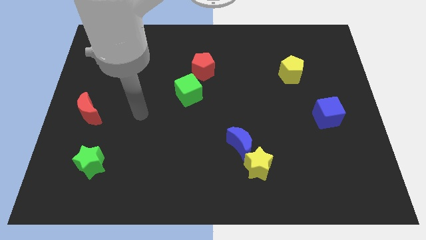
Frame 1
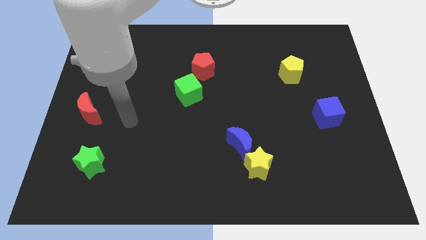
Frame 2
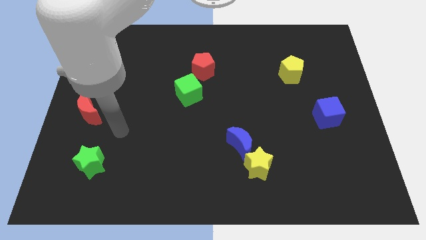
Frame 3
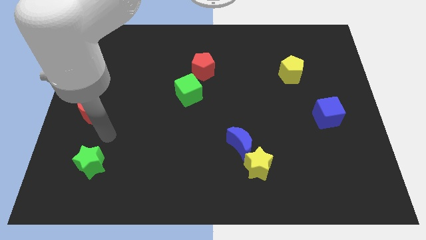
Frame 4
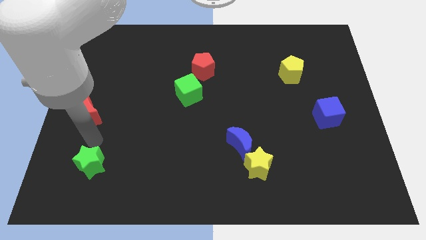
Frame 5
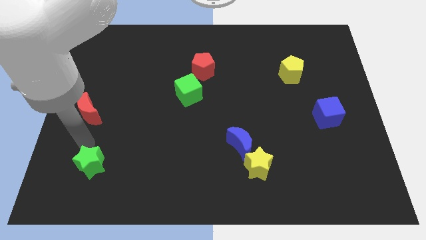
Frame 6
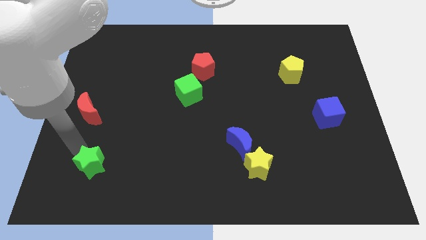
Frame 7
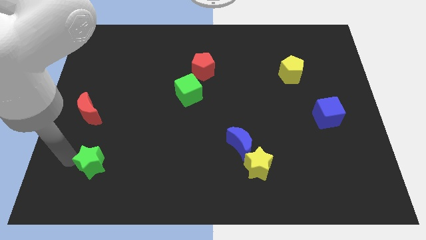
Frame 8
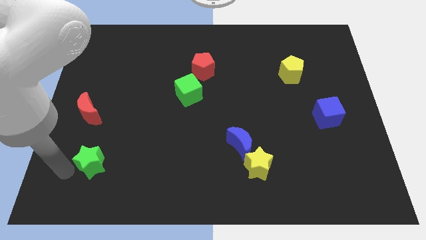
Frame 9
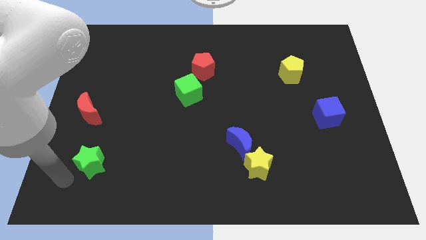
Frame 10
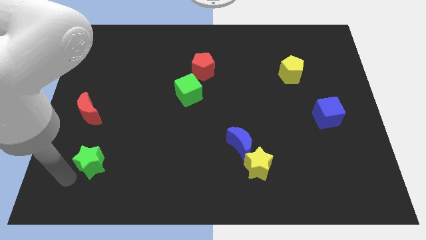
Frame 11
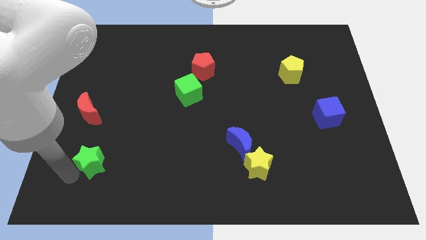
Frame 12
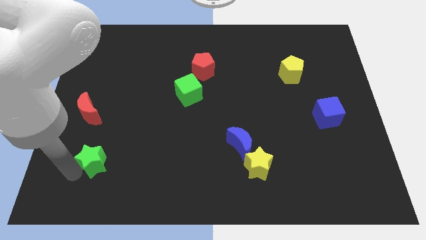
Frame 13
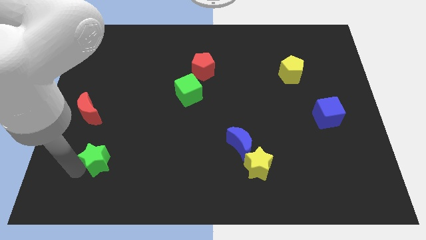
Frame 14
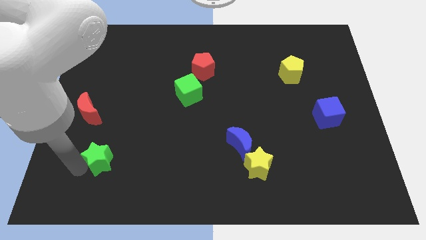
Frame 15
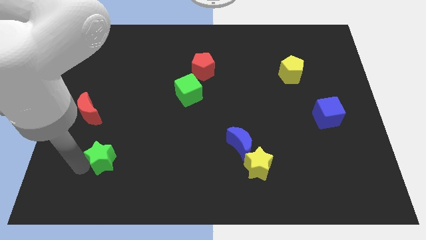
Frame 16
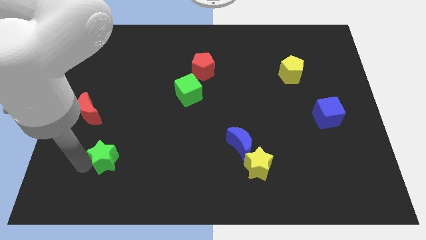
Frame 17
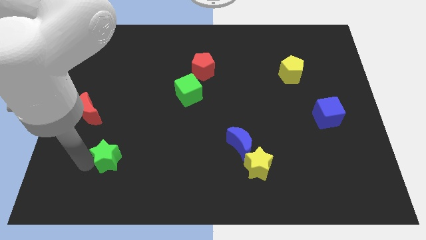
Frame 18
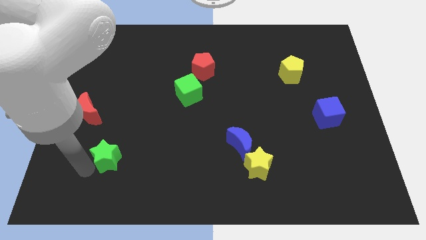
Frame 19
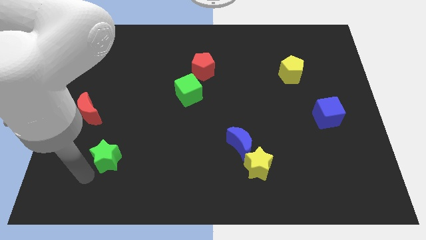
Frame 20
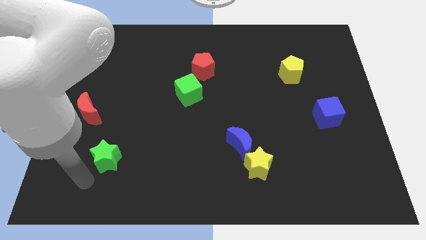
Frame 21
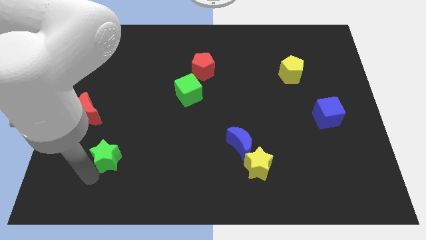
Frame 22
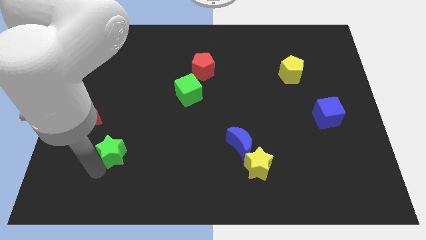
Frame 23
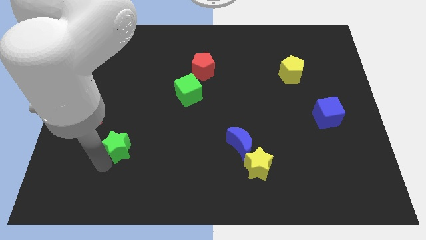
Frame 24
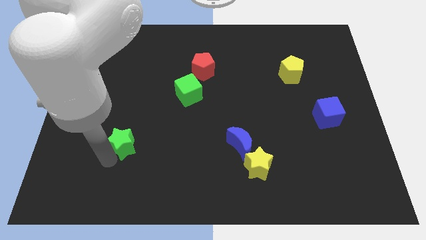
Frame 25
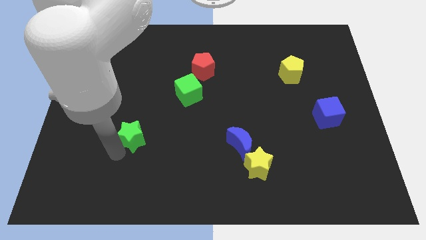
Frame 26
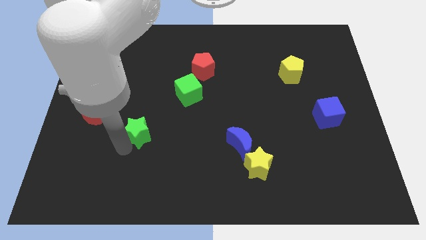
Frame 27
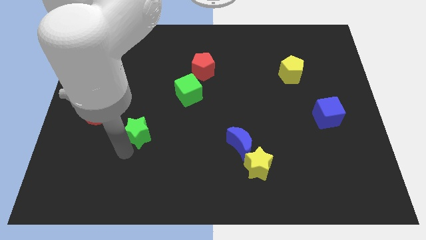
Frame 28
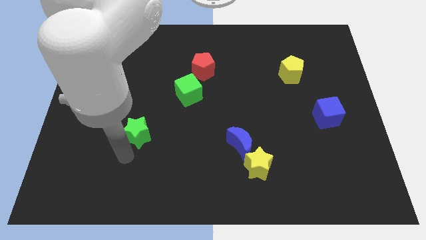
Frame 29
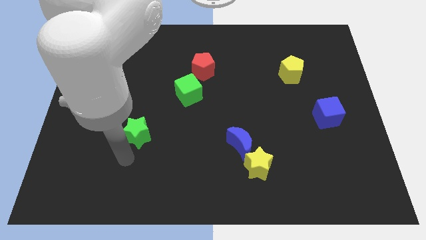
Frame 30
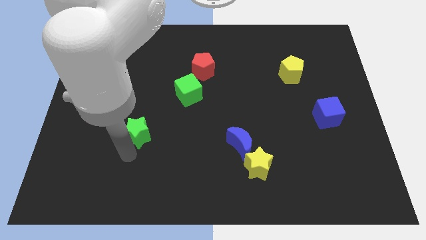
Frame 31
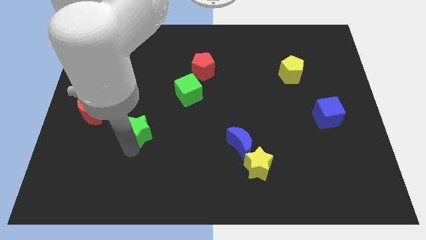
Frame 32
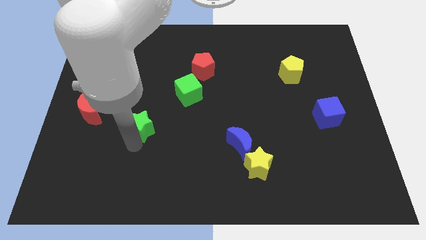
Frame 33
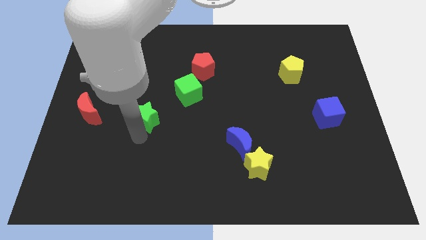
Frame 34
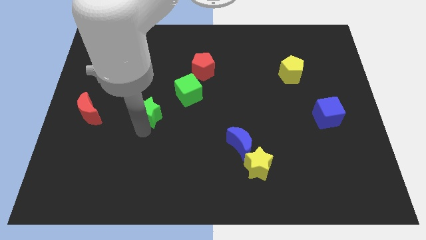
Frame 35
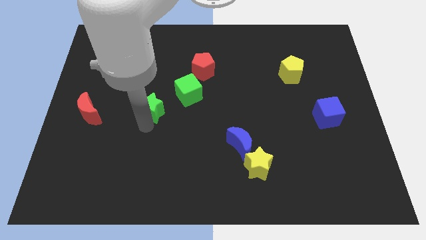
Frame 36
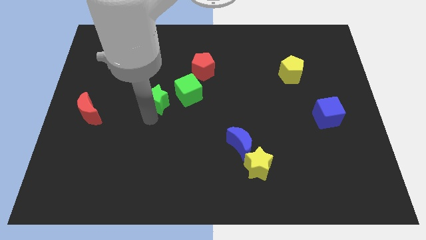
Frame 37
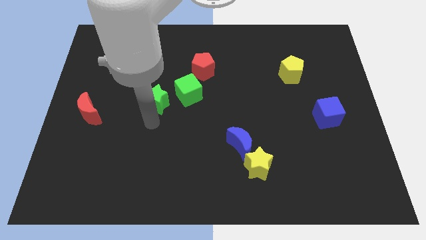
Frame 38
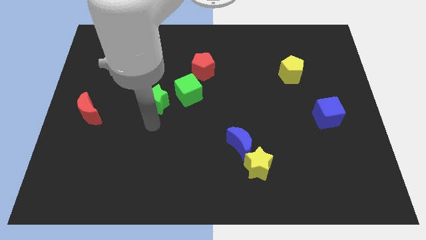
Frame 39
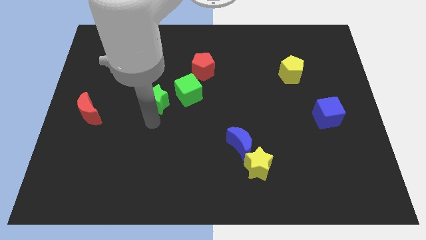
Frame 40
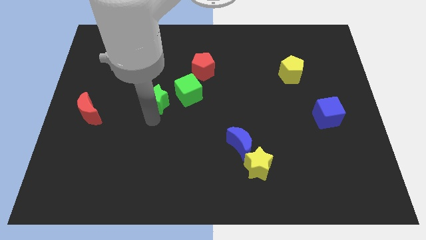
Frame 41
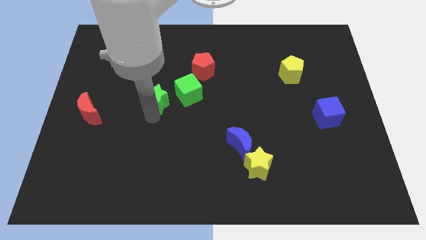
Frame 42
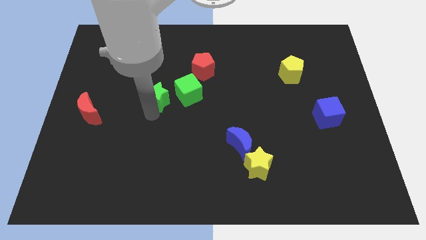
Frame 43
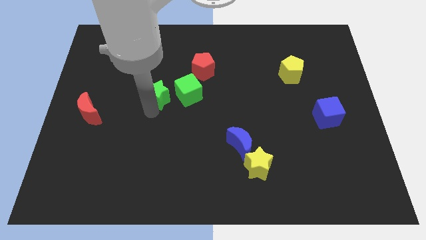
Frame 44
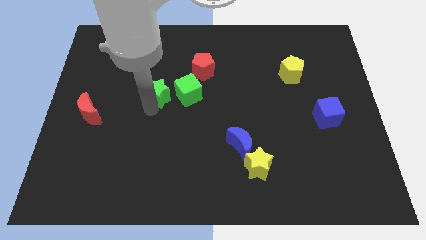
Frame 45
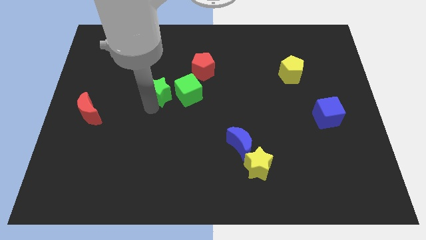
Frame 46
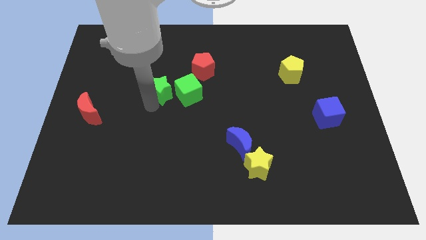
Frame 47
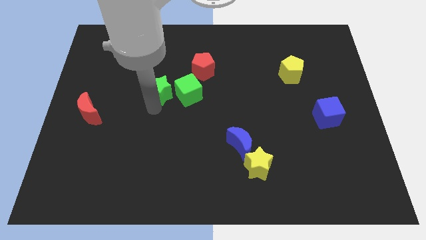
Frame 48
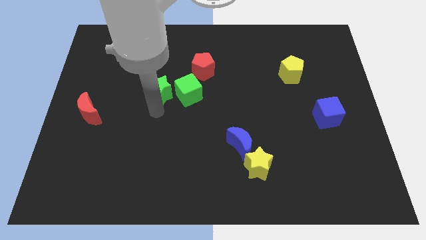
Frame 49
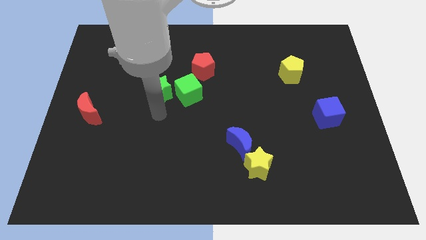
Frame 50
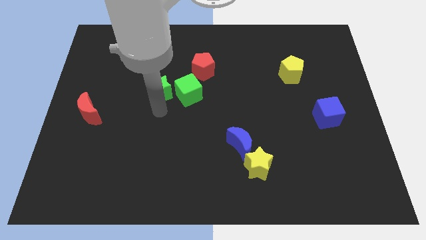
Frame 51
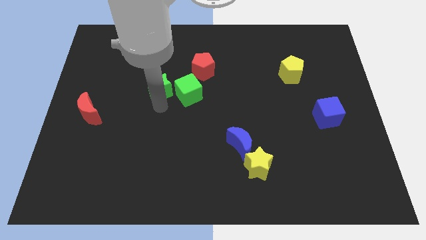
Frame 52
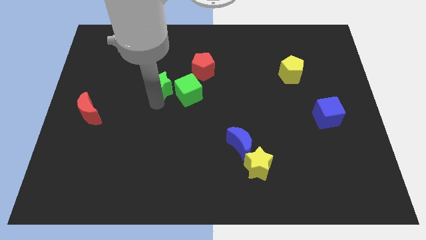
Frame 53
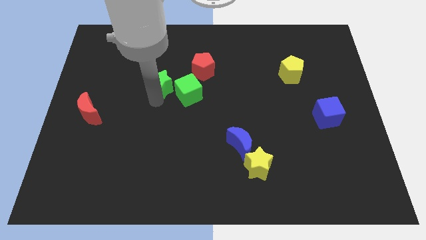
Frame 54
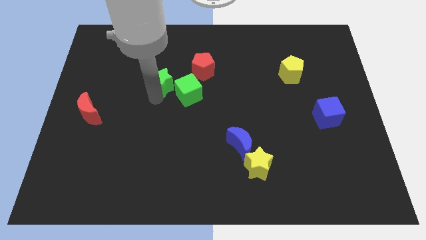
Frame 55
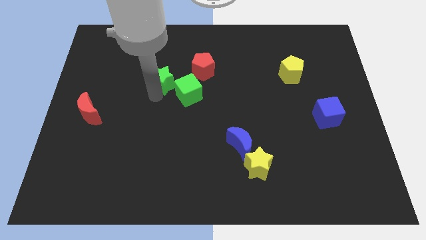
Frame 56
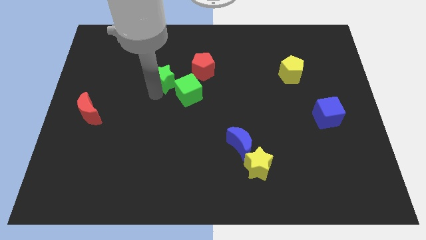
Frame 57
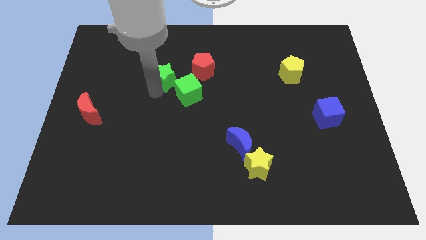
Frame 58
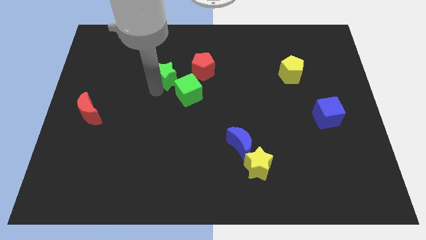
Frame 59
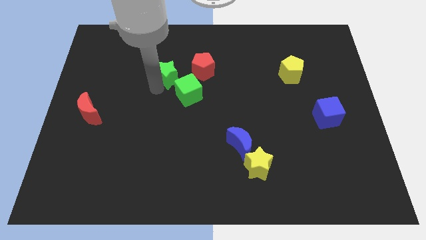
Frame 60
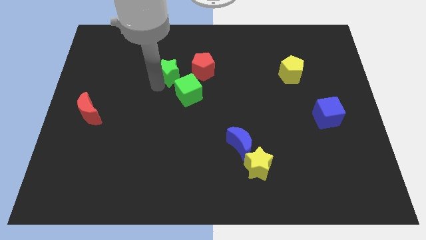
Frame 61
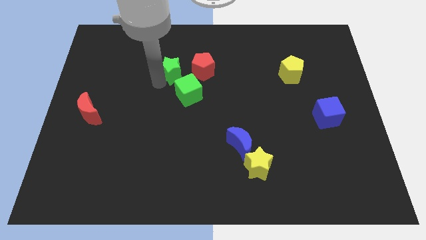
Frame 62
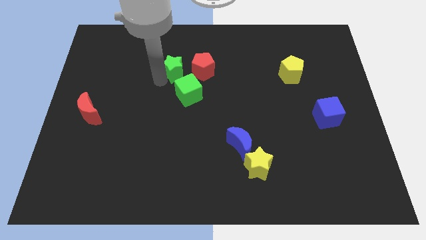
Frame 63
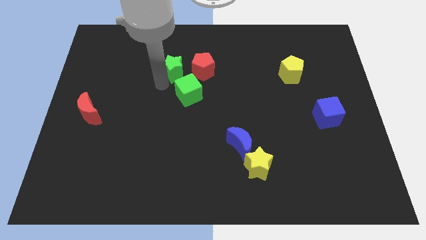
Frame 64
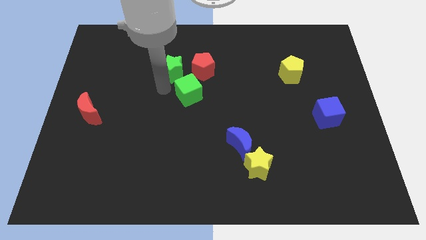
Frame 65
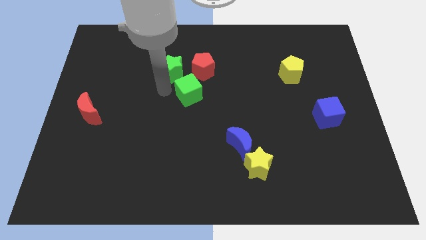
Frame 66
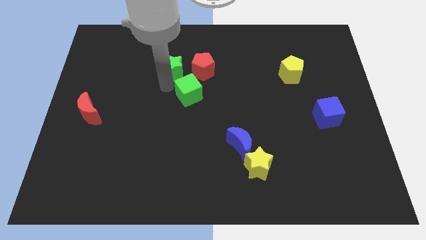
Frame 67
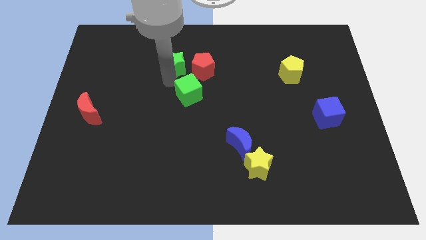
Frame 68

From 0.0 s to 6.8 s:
put the green star diagonally up and to the left of the red pentagon
